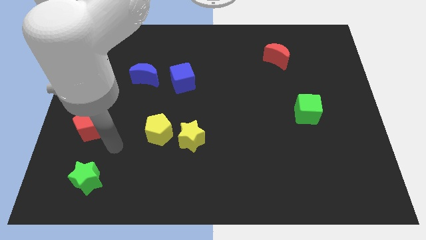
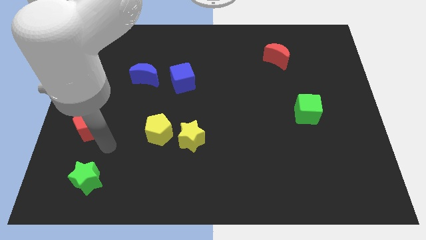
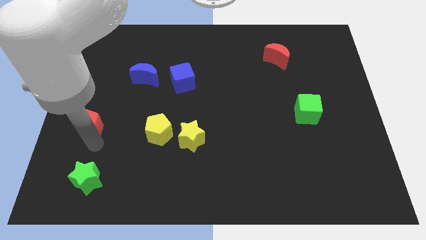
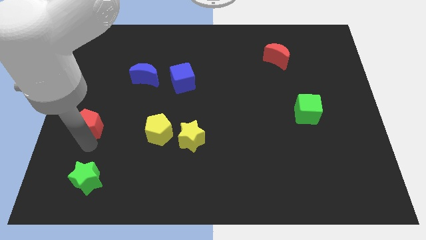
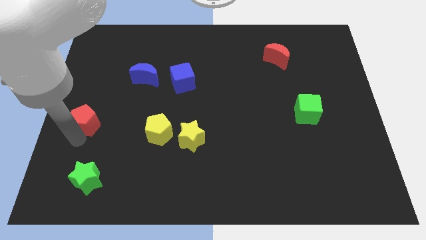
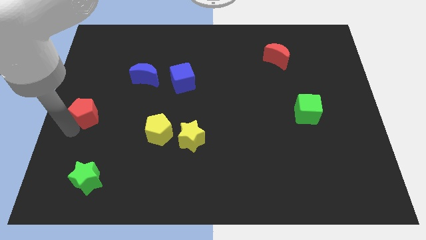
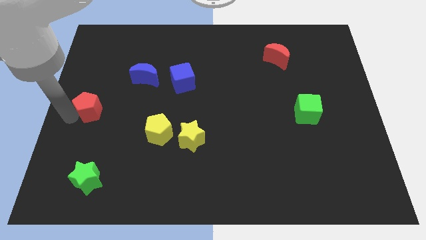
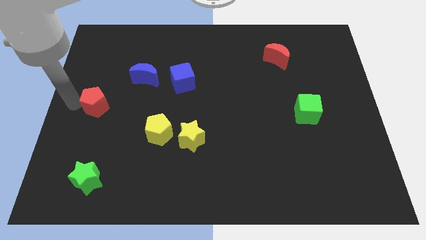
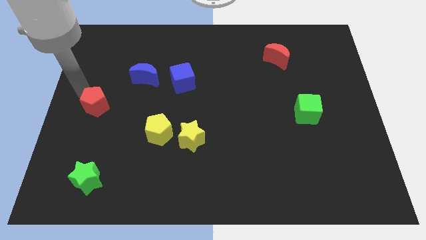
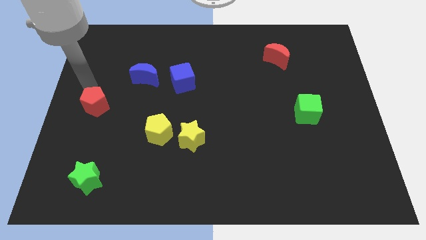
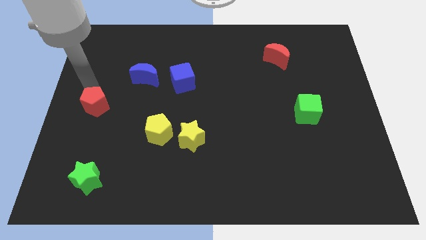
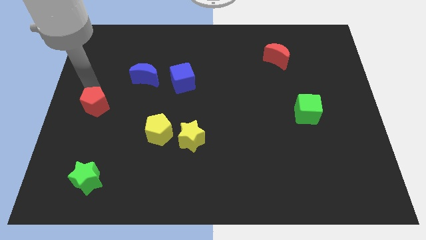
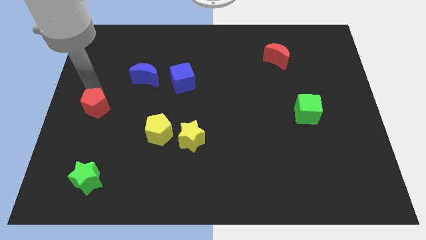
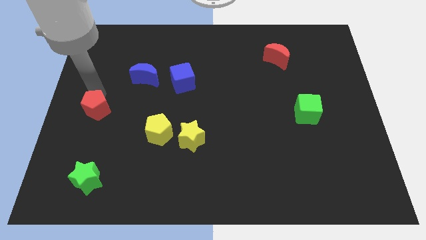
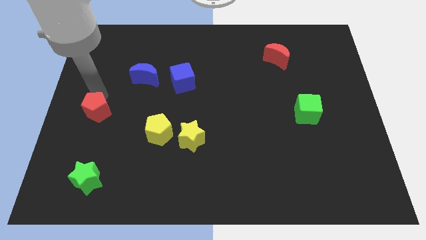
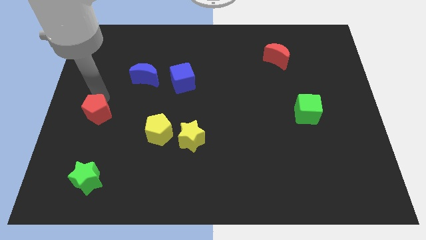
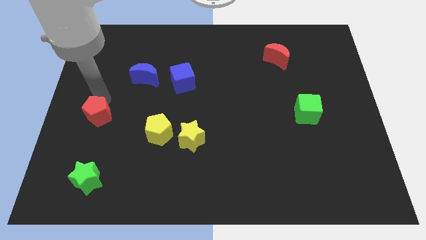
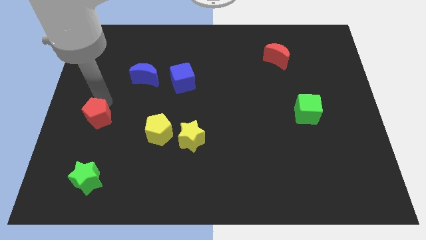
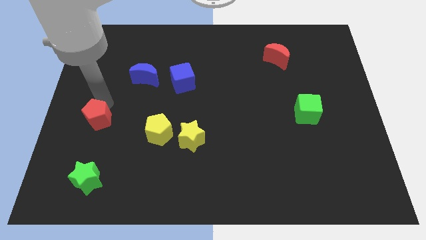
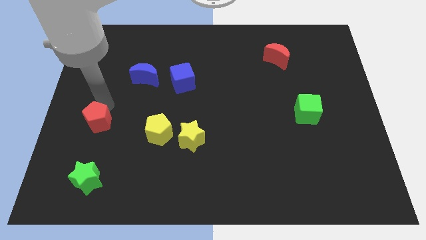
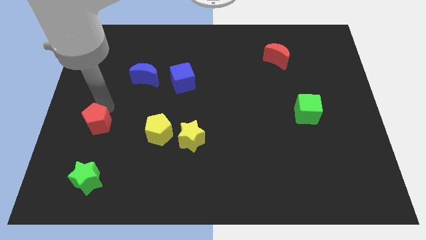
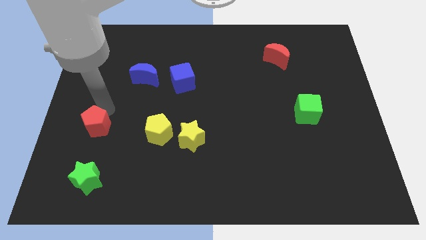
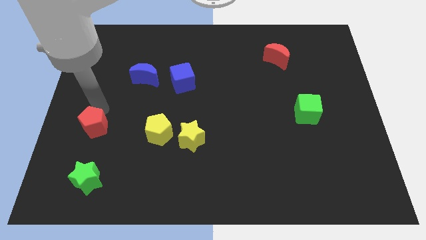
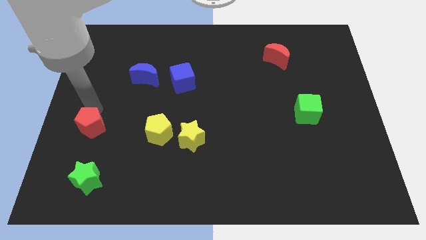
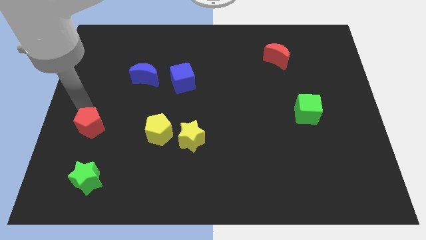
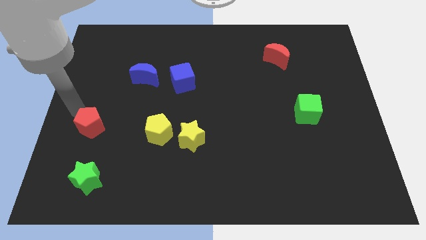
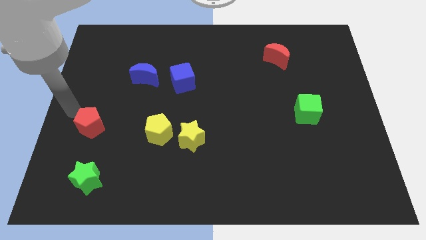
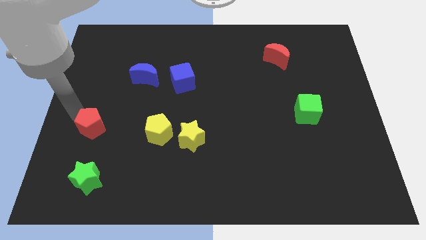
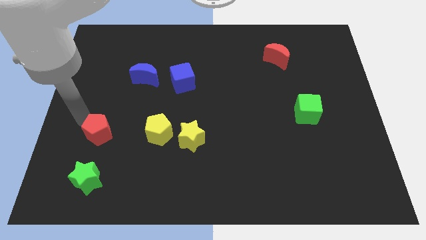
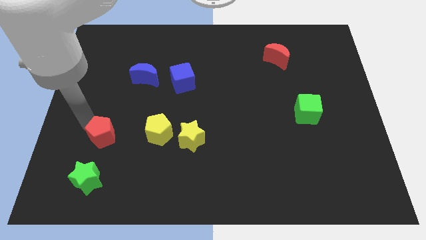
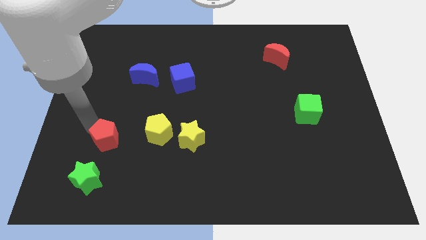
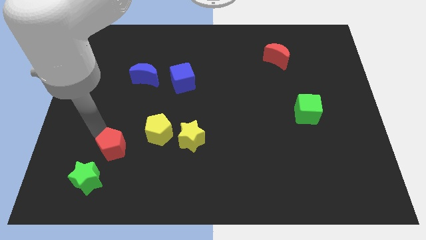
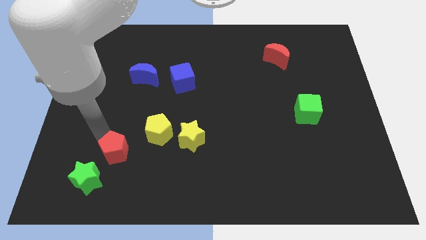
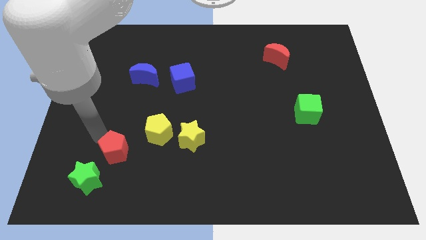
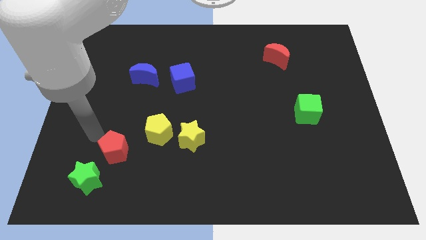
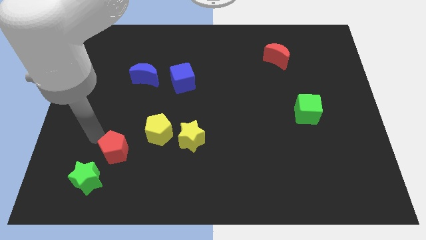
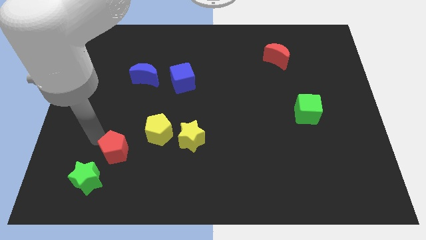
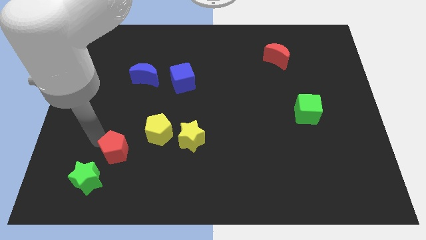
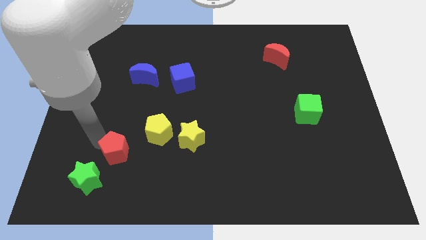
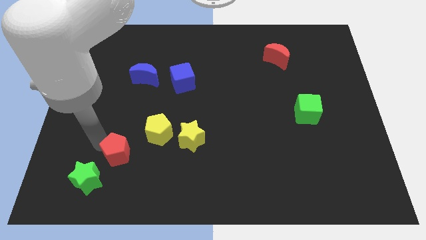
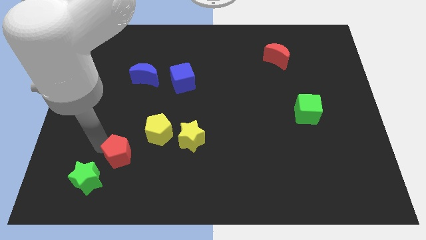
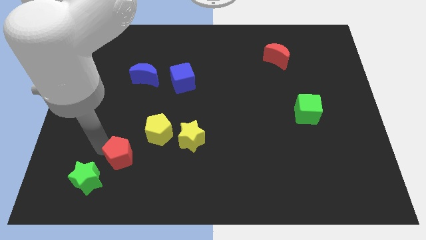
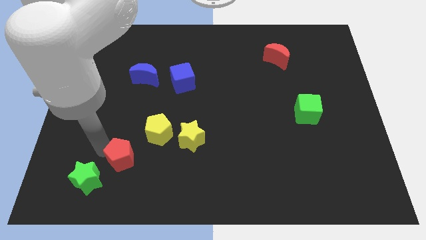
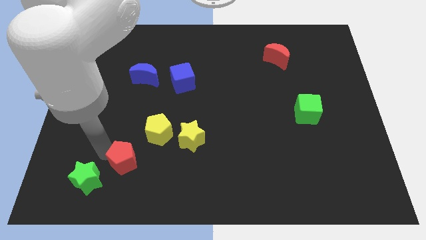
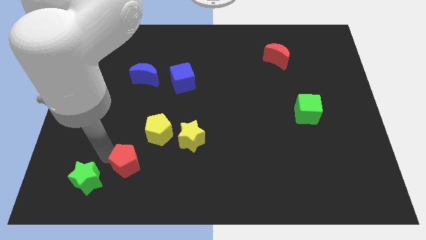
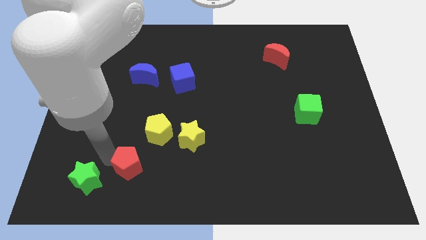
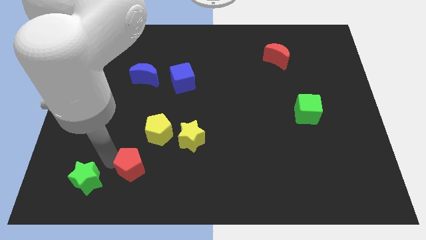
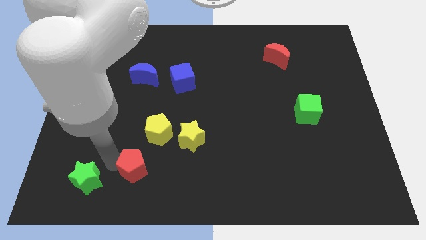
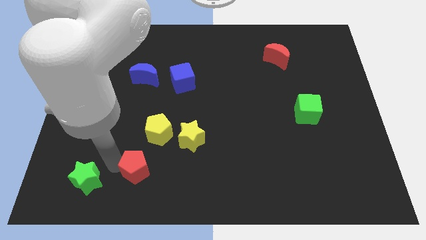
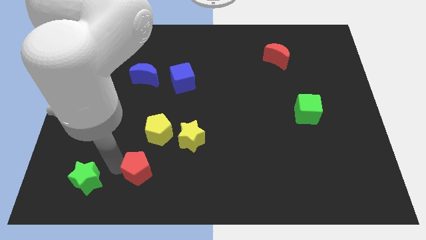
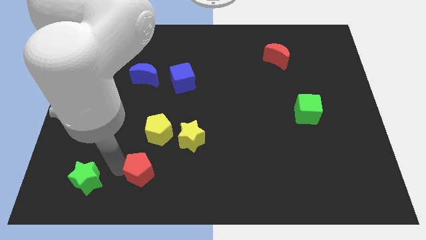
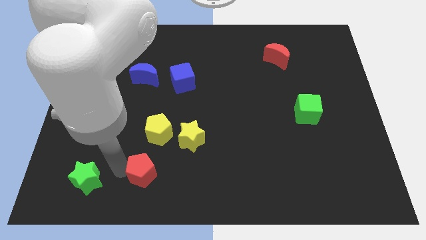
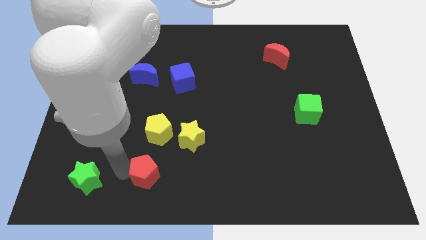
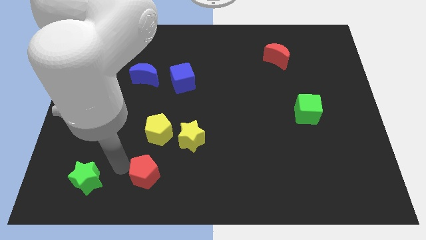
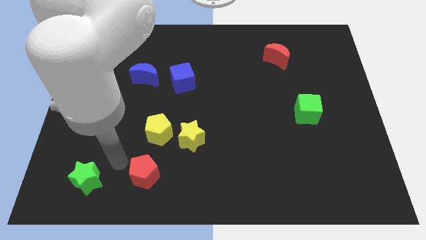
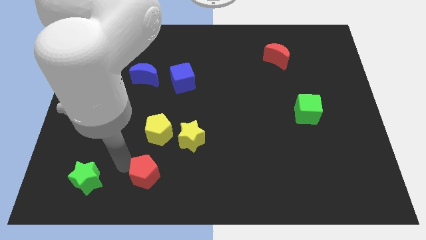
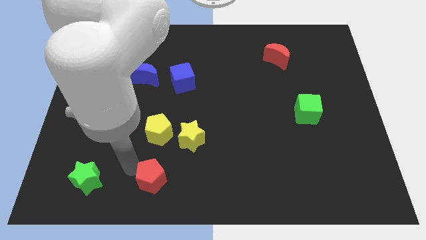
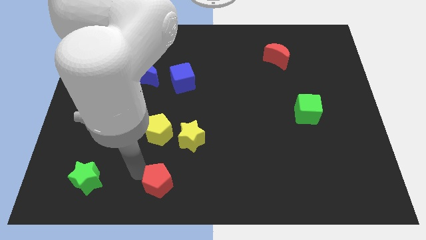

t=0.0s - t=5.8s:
move the red pentagon to the bottom side

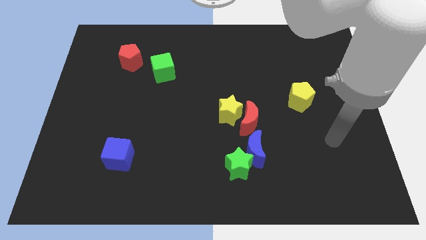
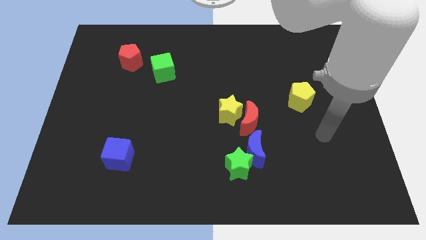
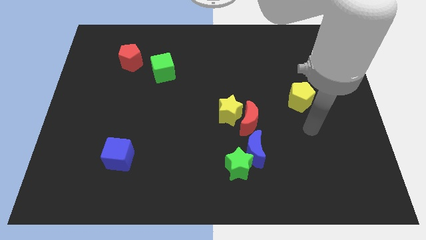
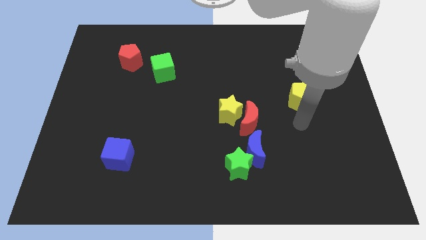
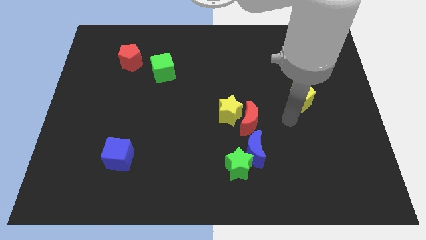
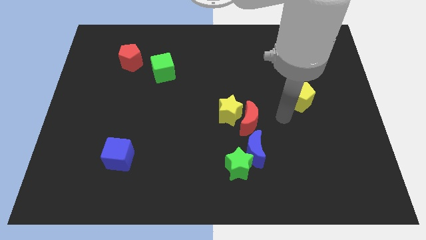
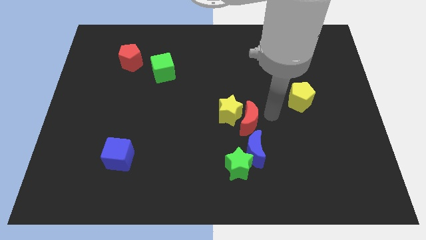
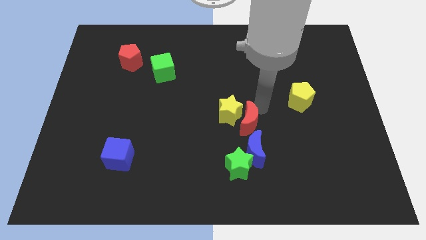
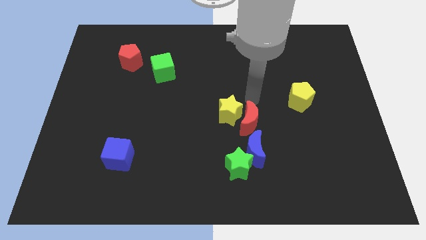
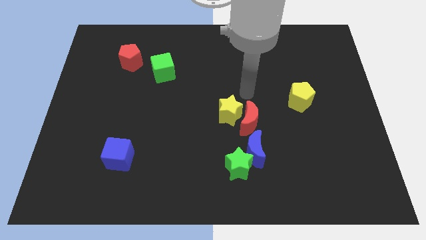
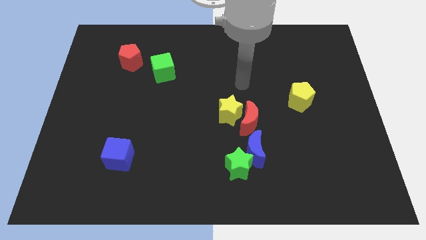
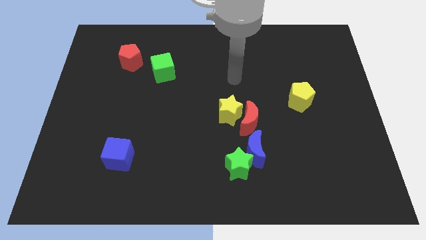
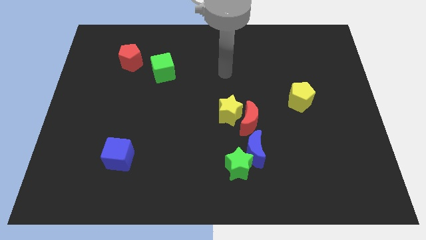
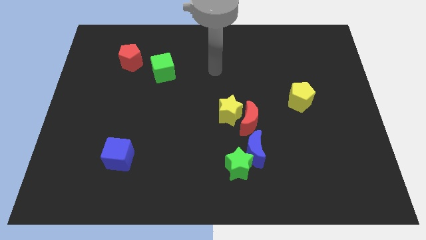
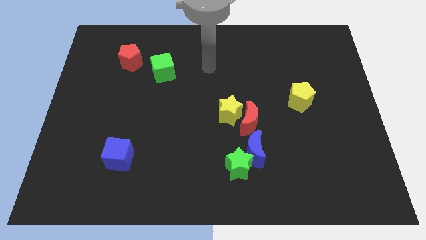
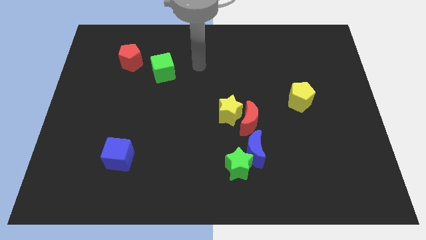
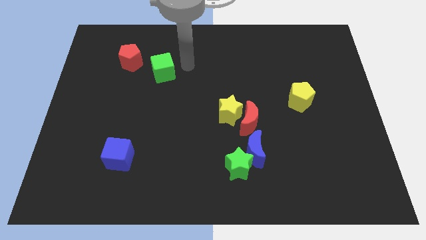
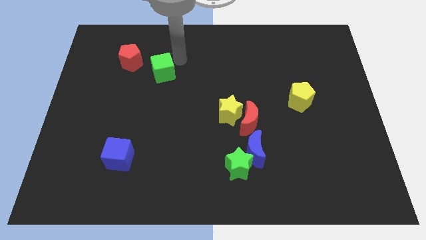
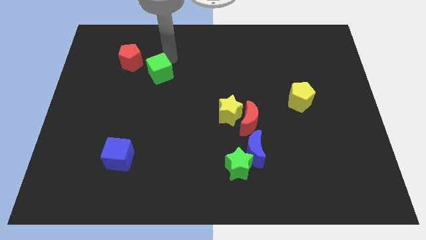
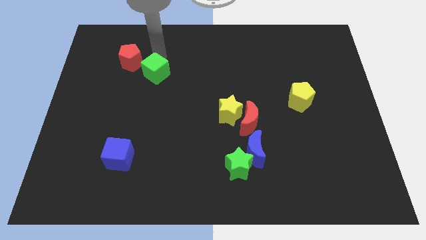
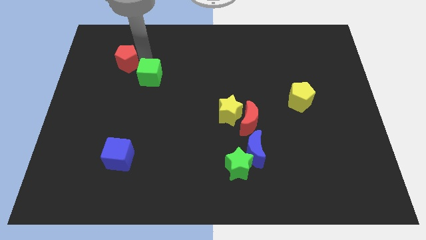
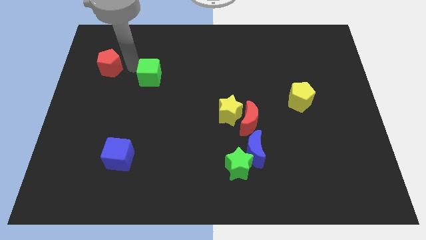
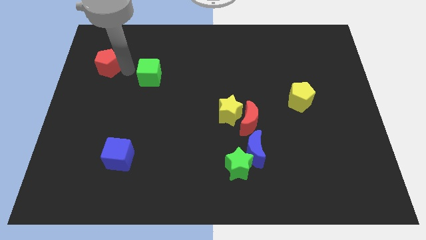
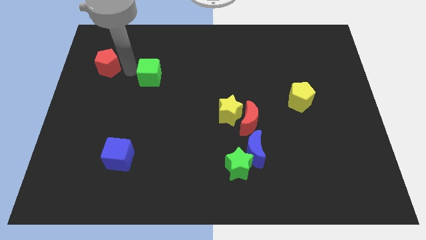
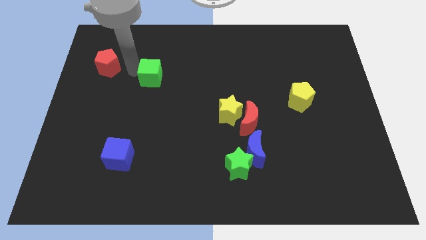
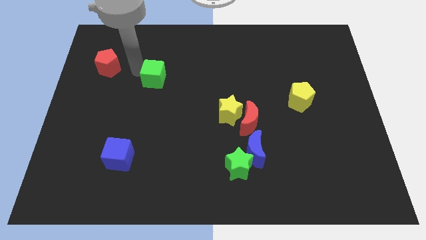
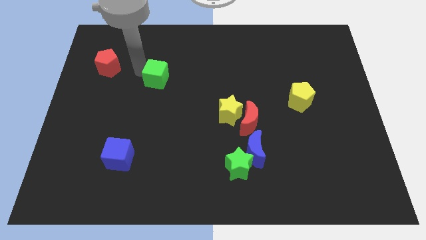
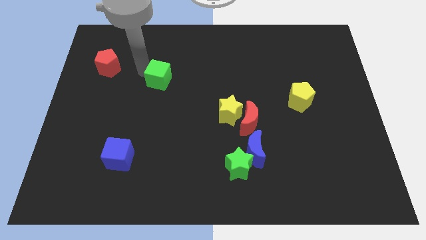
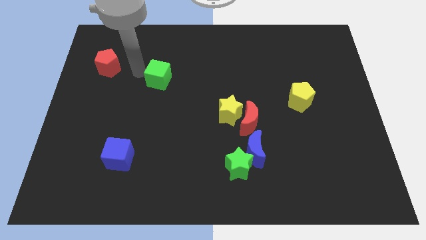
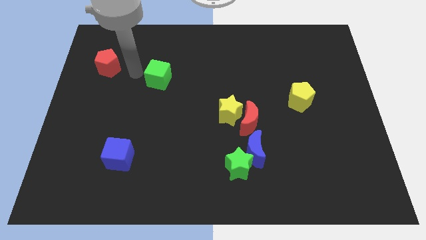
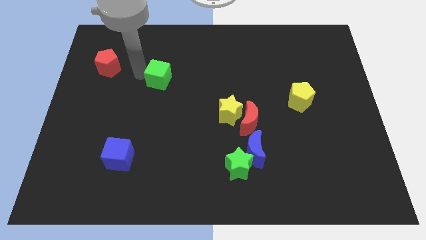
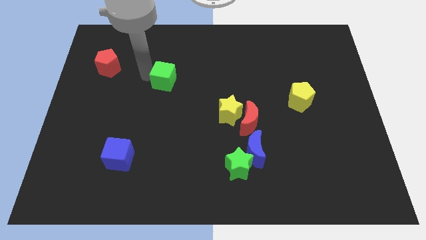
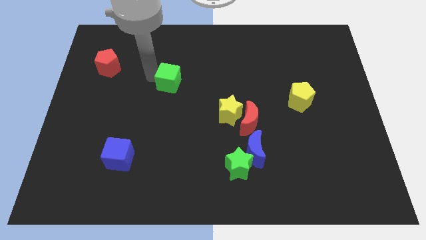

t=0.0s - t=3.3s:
put the green cube to the center
